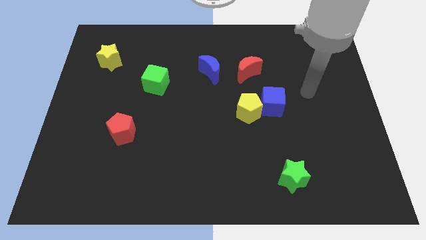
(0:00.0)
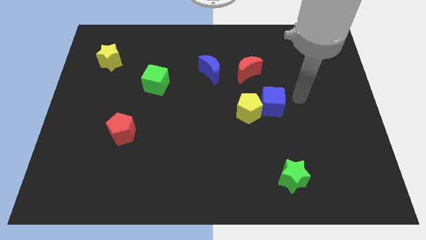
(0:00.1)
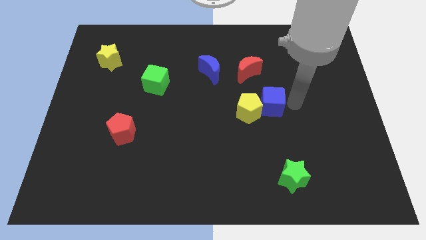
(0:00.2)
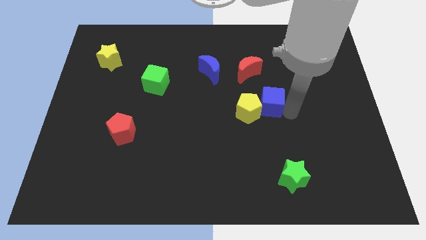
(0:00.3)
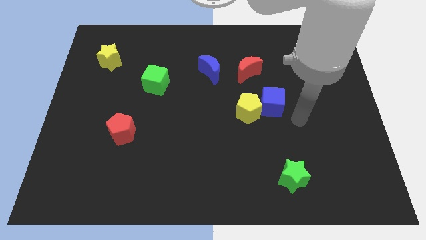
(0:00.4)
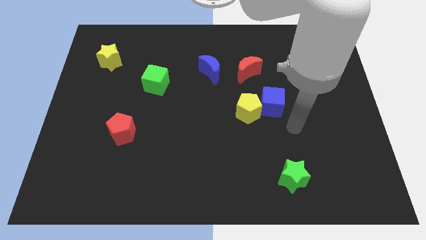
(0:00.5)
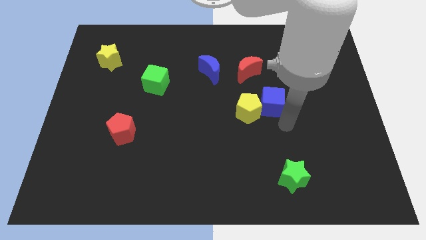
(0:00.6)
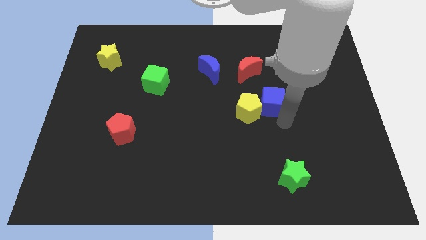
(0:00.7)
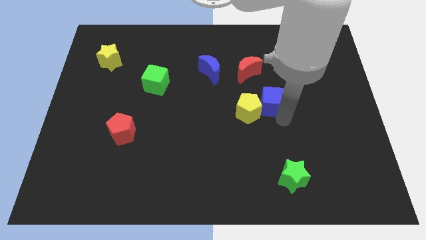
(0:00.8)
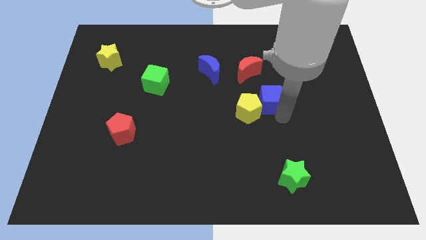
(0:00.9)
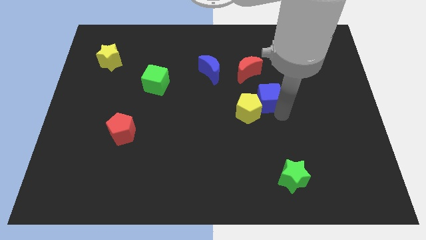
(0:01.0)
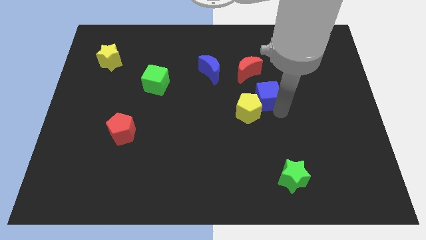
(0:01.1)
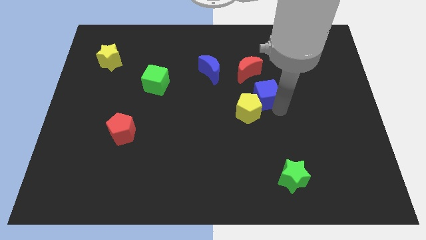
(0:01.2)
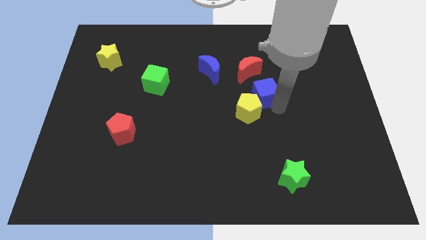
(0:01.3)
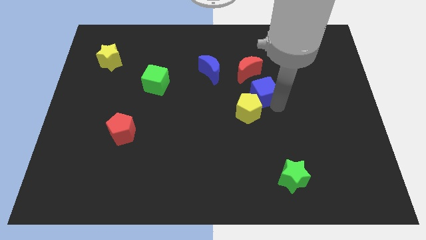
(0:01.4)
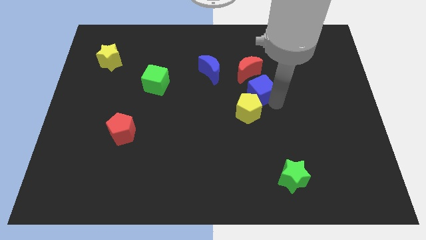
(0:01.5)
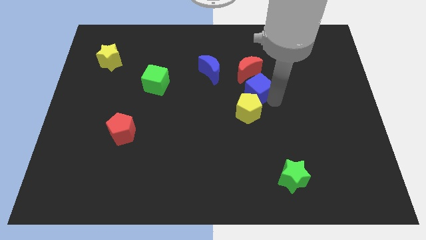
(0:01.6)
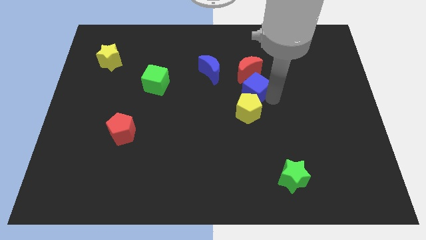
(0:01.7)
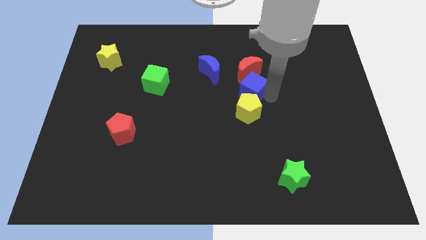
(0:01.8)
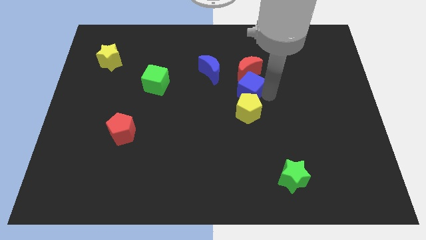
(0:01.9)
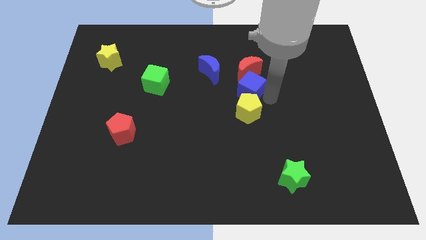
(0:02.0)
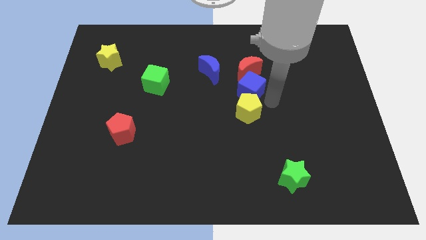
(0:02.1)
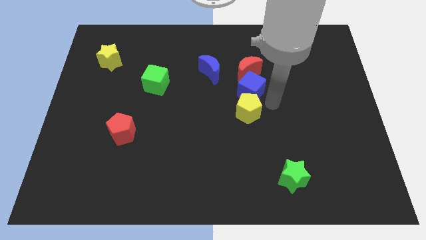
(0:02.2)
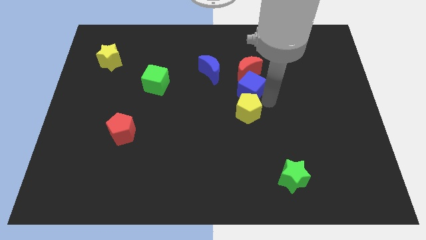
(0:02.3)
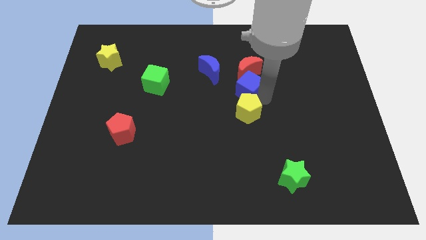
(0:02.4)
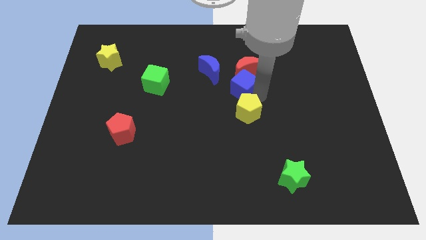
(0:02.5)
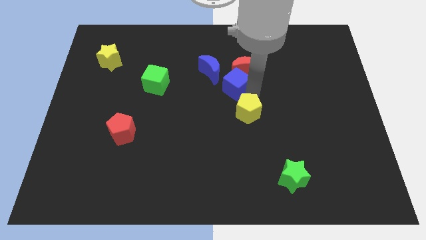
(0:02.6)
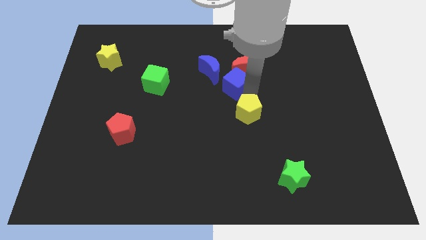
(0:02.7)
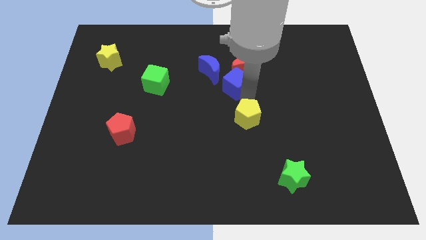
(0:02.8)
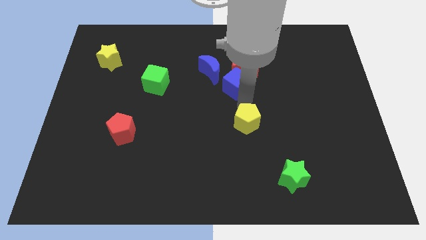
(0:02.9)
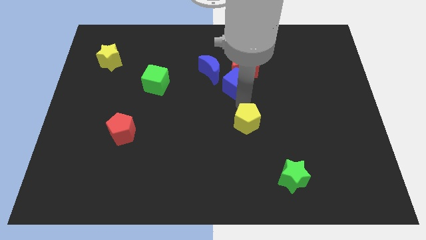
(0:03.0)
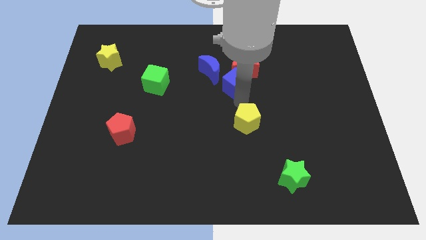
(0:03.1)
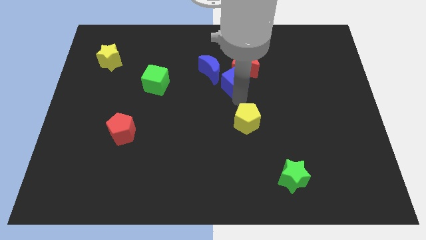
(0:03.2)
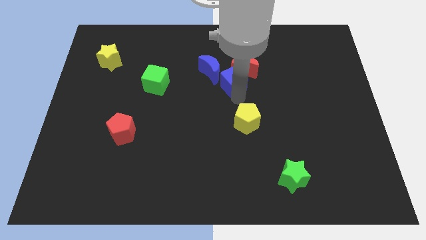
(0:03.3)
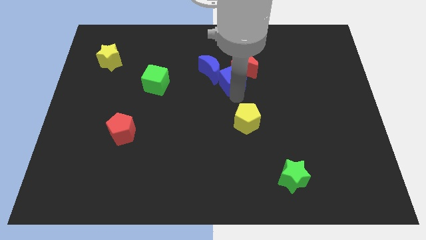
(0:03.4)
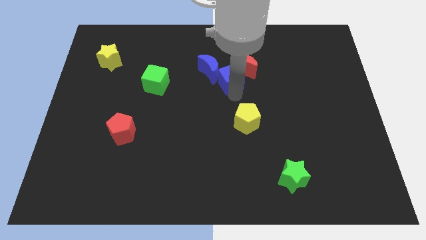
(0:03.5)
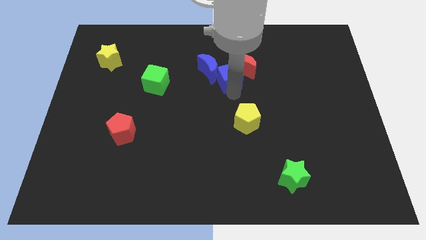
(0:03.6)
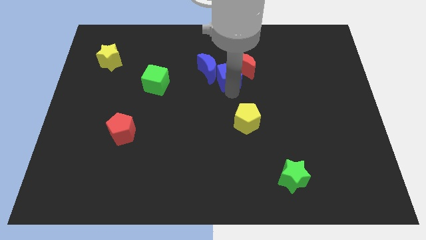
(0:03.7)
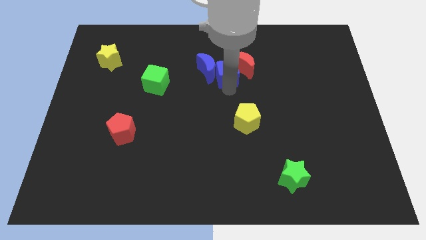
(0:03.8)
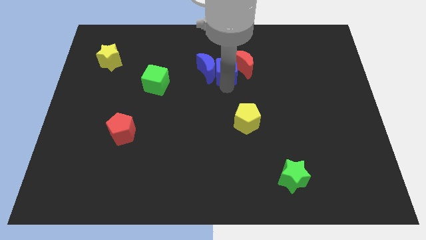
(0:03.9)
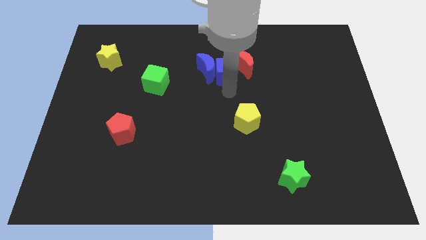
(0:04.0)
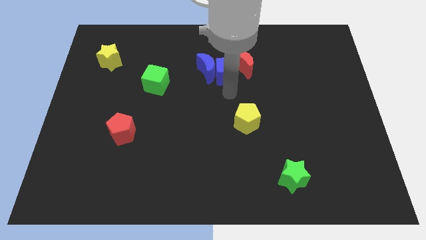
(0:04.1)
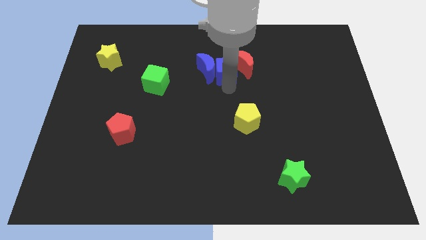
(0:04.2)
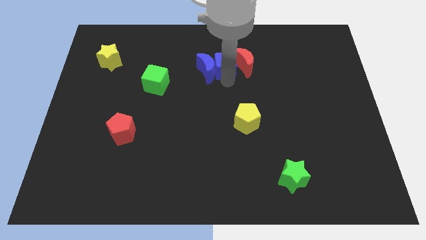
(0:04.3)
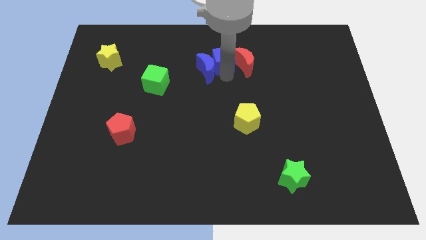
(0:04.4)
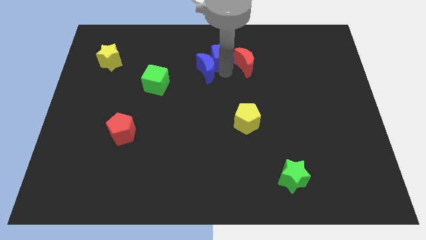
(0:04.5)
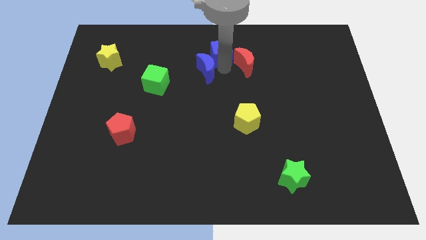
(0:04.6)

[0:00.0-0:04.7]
push the blue cube to the top

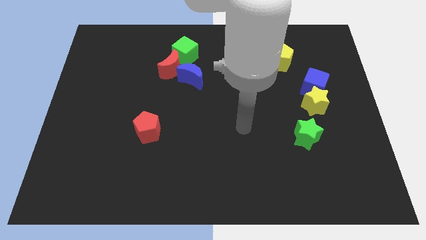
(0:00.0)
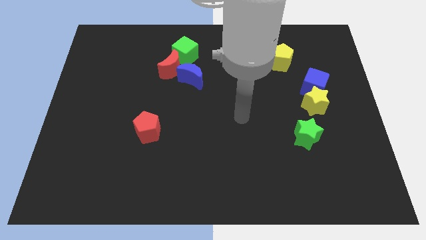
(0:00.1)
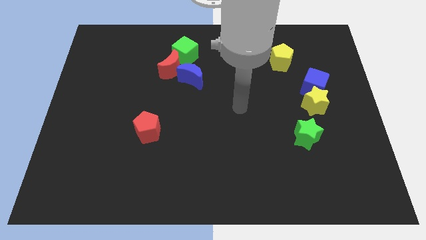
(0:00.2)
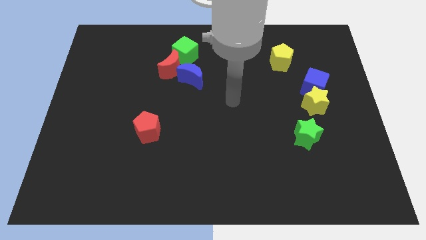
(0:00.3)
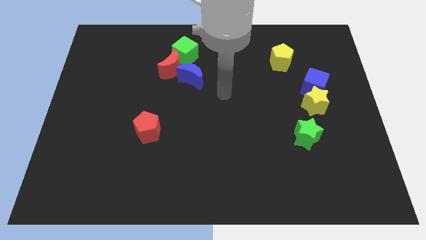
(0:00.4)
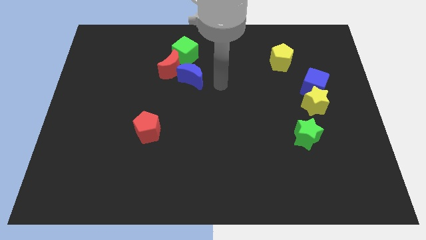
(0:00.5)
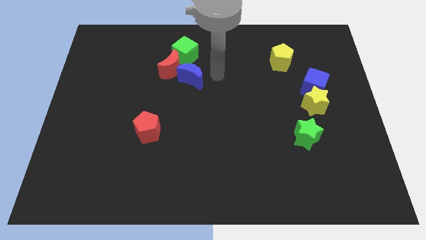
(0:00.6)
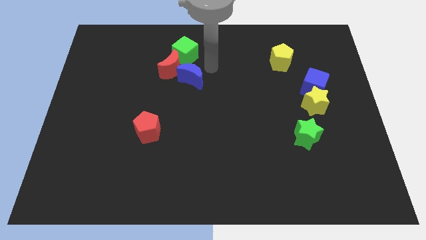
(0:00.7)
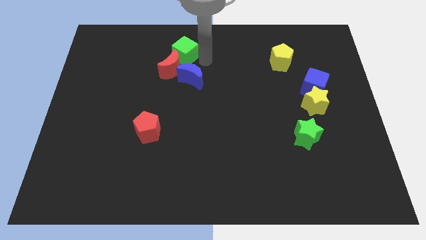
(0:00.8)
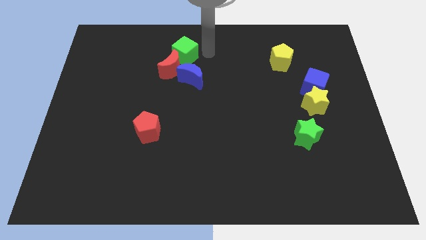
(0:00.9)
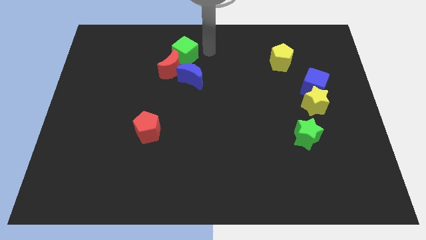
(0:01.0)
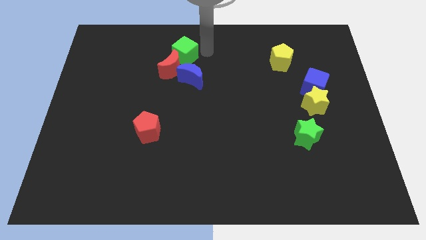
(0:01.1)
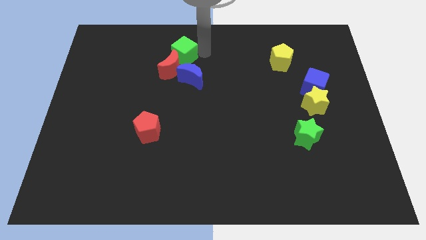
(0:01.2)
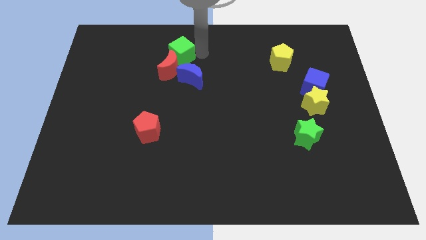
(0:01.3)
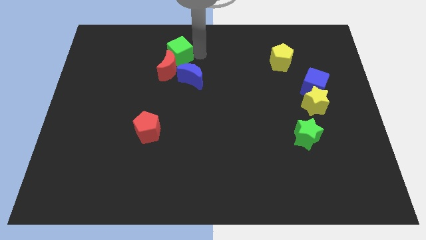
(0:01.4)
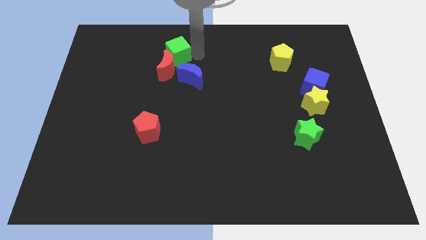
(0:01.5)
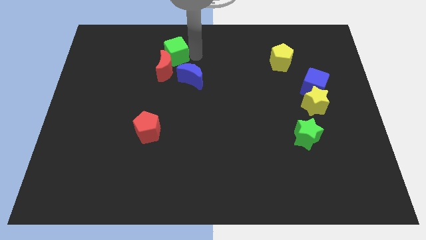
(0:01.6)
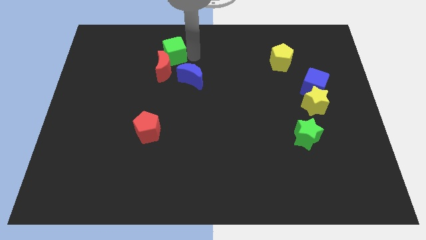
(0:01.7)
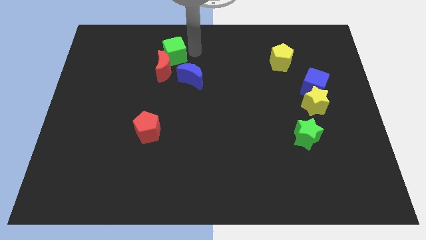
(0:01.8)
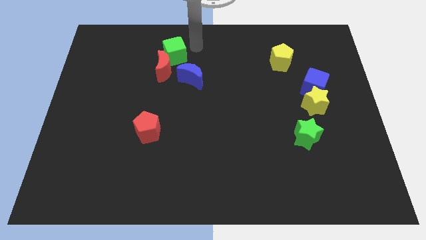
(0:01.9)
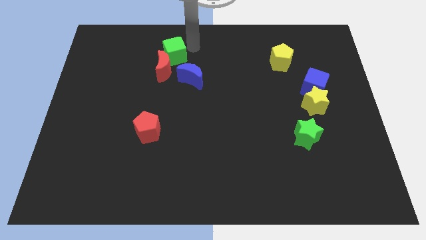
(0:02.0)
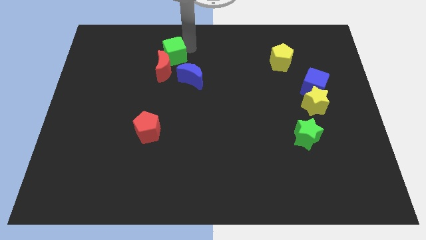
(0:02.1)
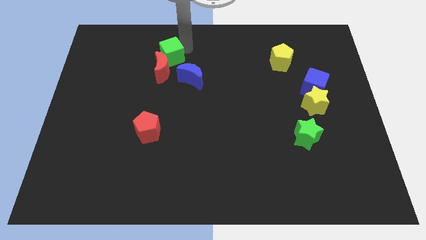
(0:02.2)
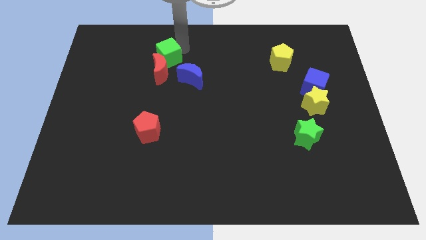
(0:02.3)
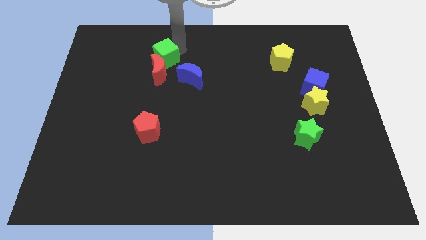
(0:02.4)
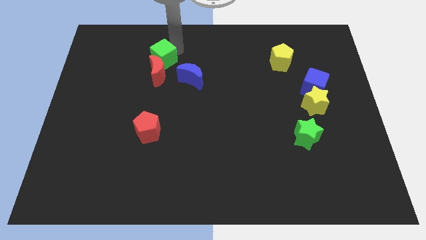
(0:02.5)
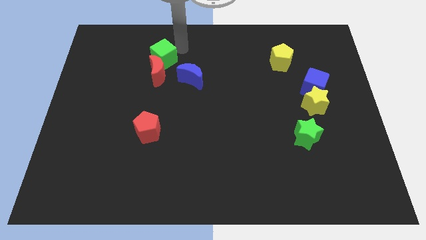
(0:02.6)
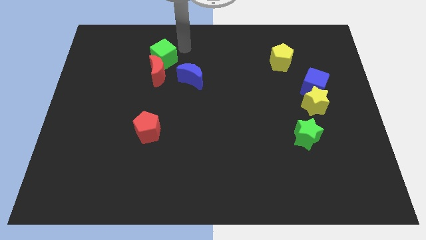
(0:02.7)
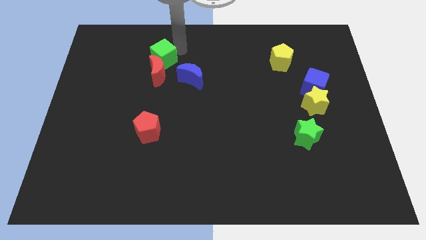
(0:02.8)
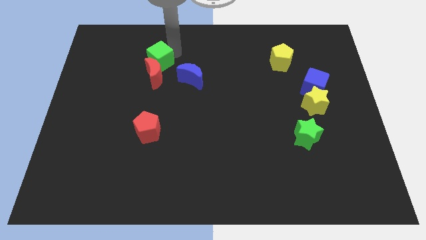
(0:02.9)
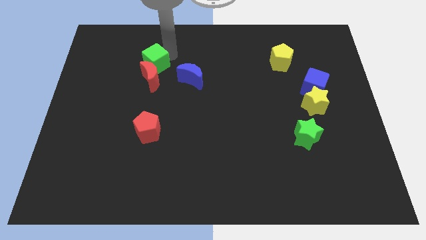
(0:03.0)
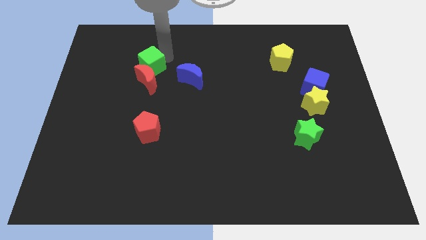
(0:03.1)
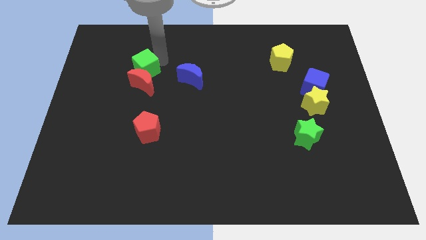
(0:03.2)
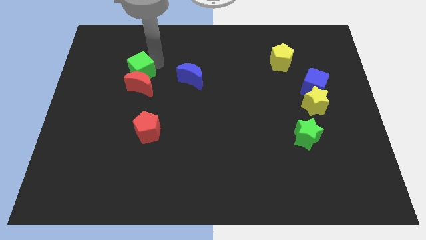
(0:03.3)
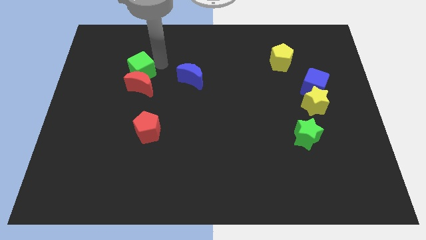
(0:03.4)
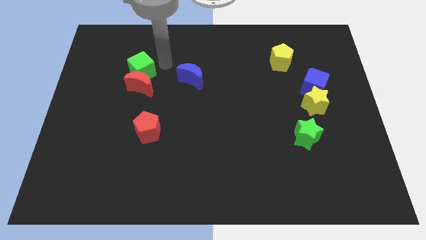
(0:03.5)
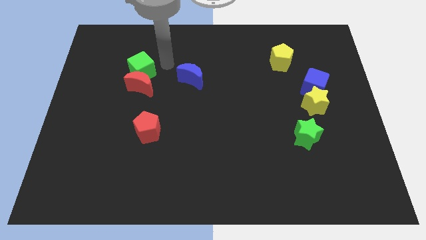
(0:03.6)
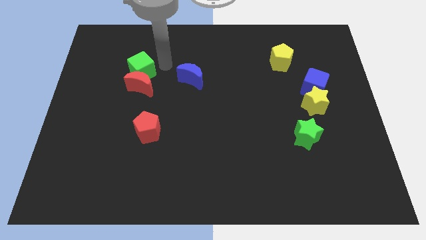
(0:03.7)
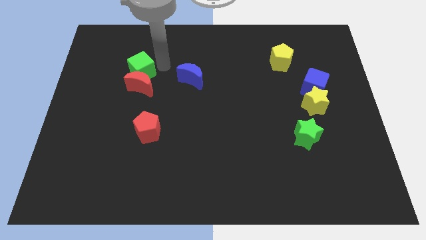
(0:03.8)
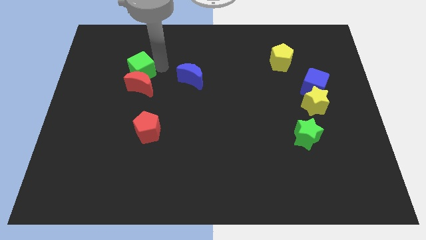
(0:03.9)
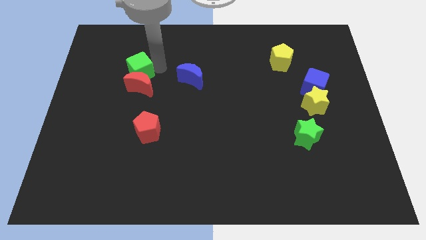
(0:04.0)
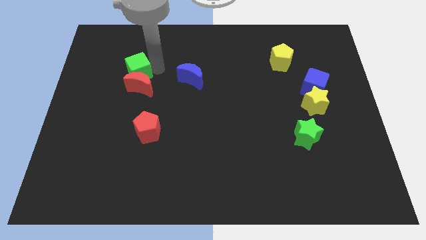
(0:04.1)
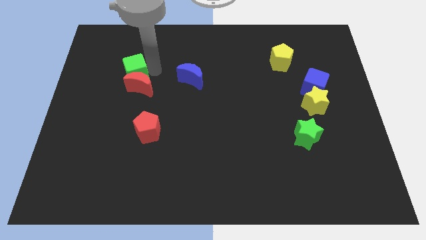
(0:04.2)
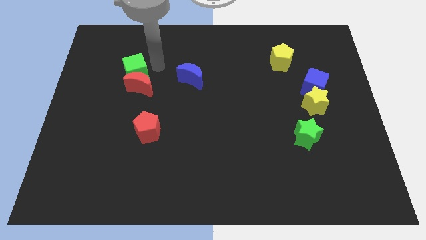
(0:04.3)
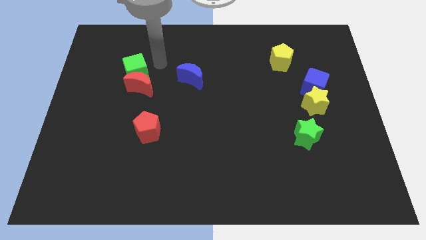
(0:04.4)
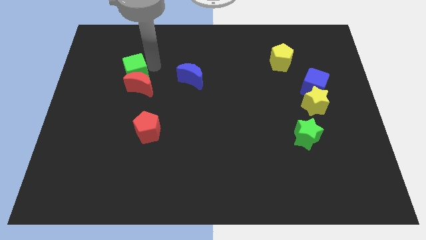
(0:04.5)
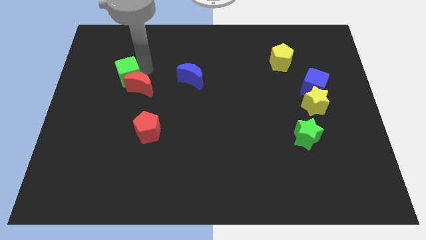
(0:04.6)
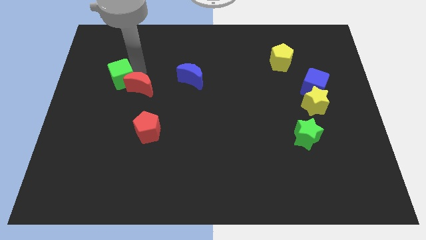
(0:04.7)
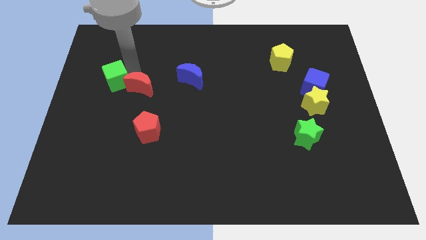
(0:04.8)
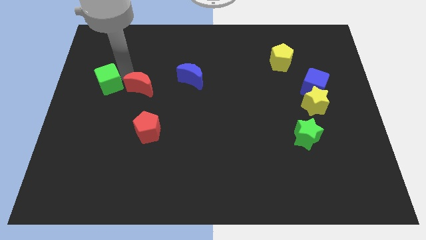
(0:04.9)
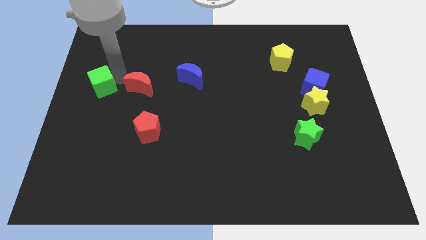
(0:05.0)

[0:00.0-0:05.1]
slide the green cube to the left side
